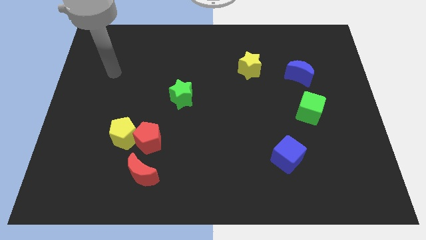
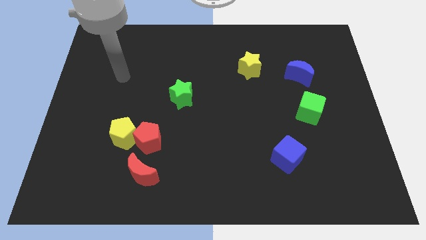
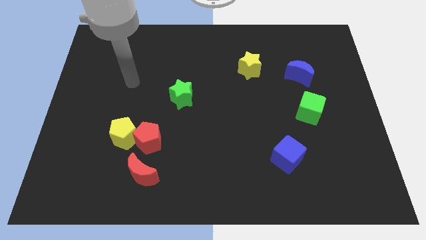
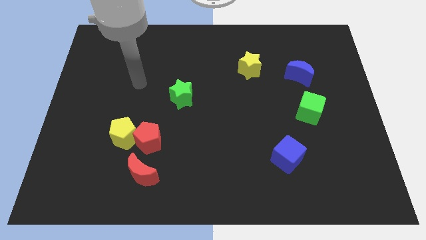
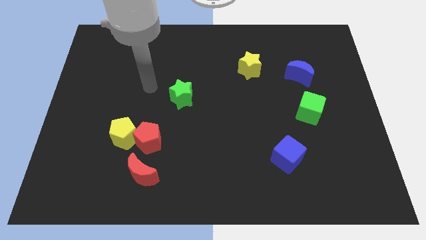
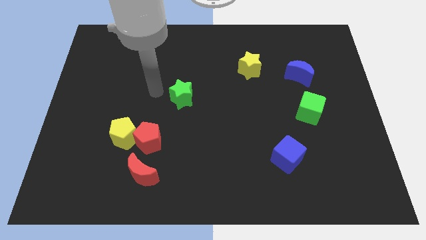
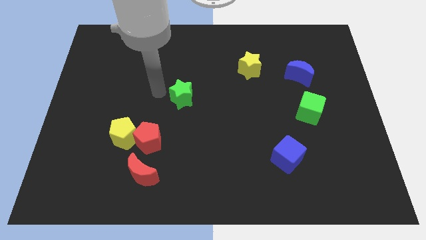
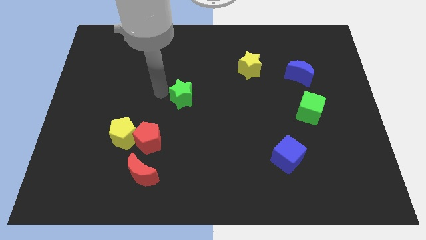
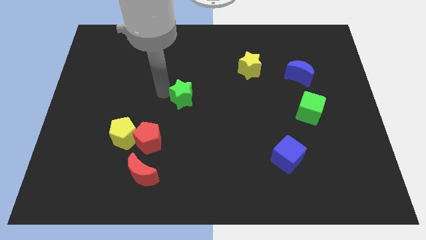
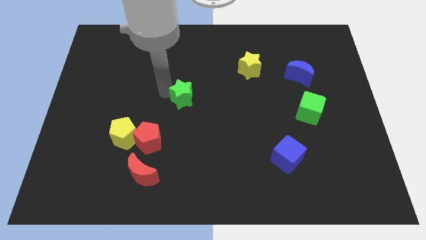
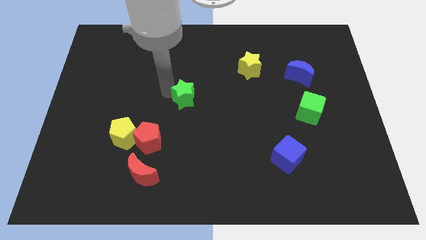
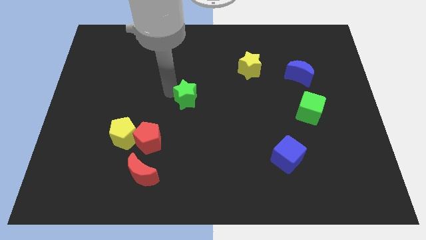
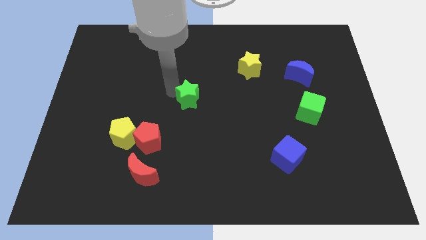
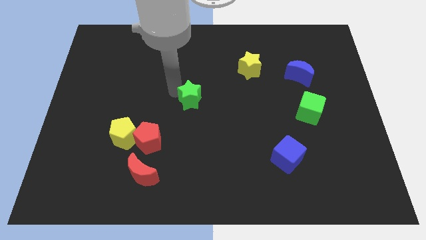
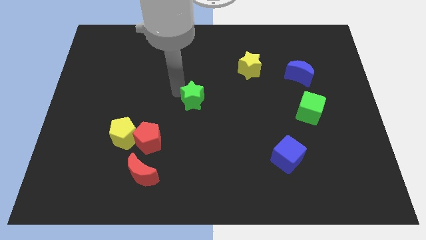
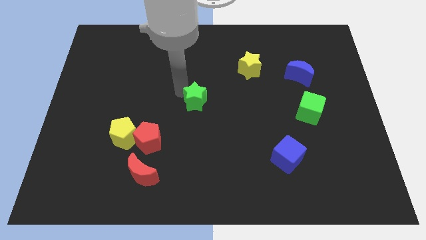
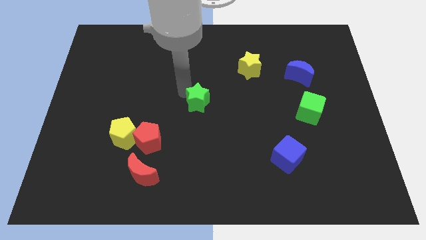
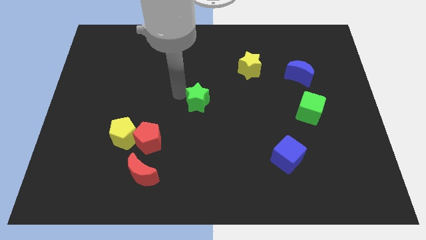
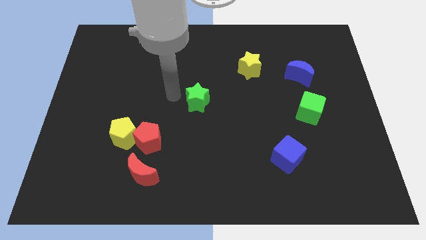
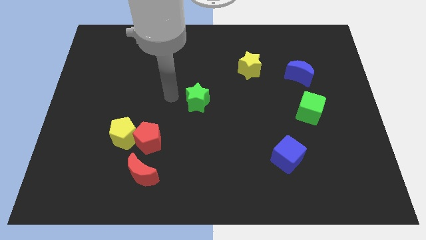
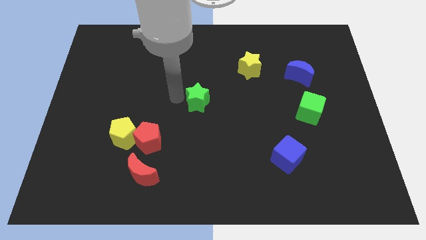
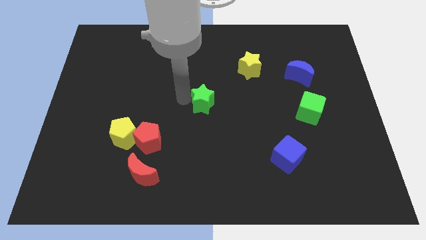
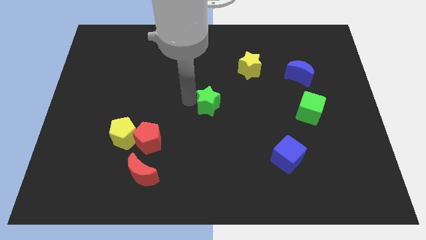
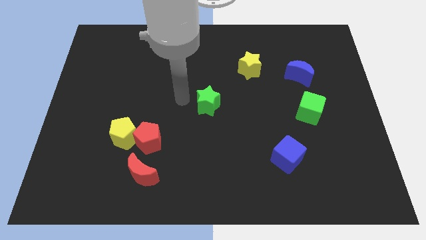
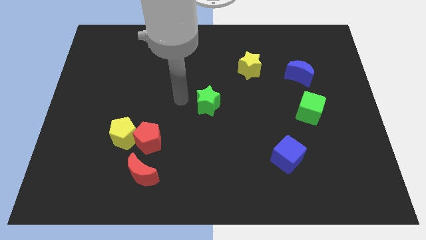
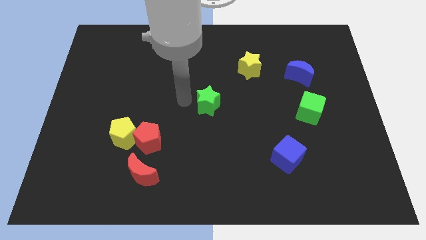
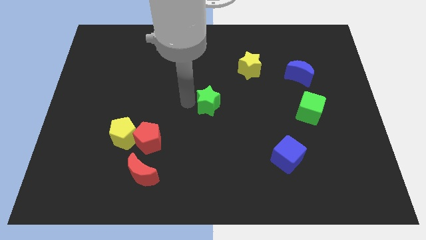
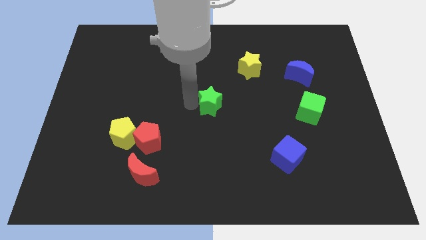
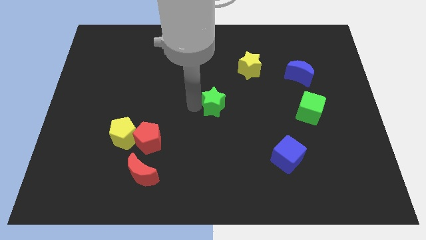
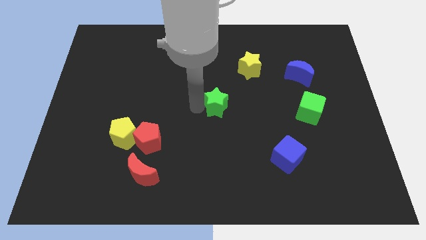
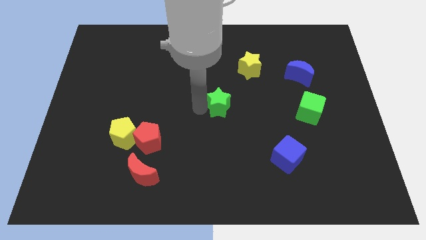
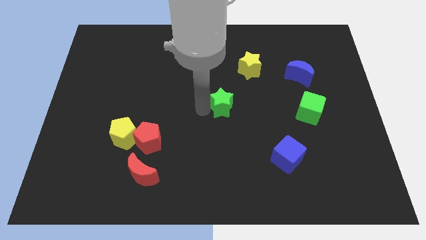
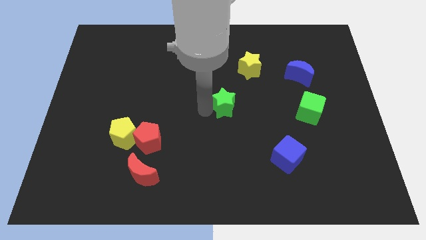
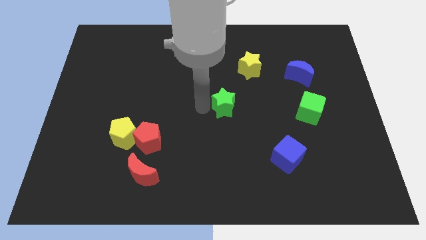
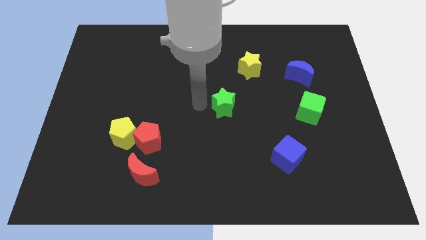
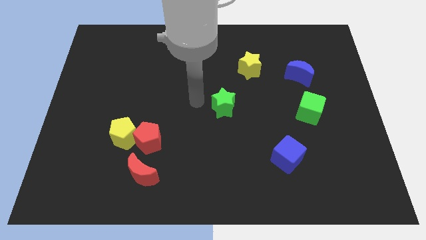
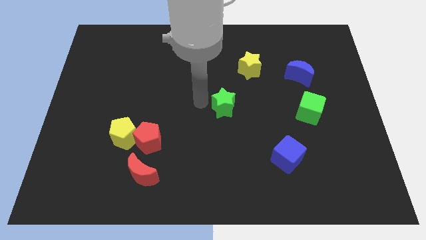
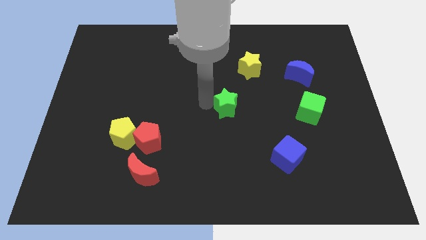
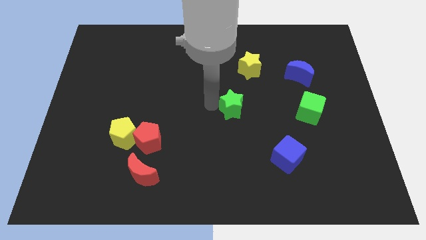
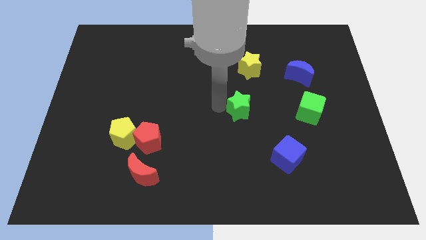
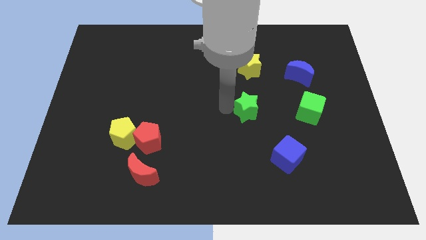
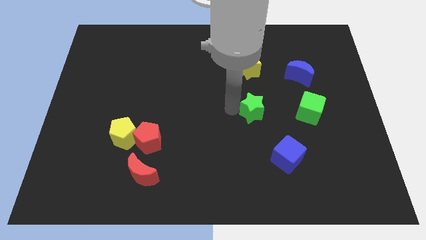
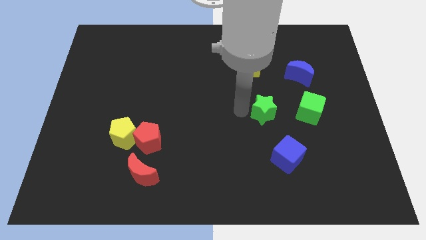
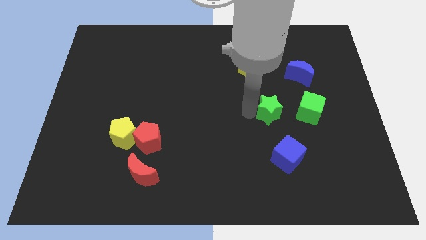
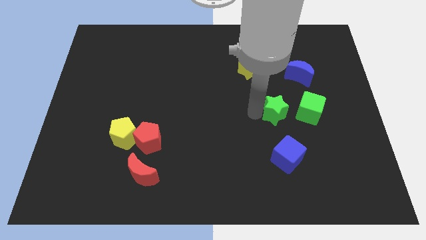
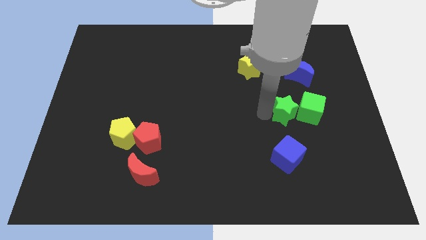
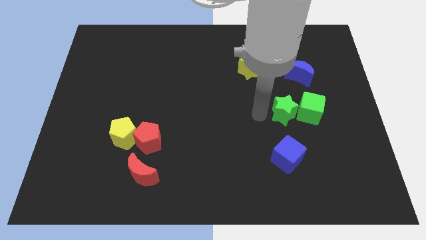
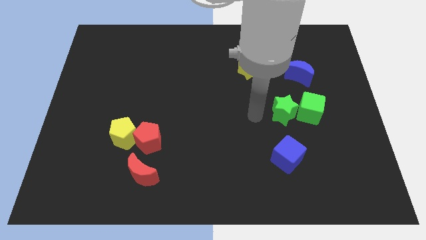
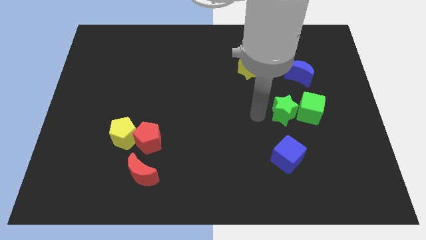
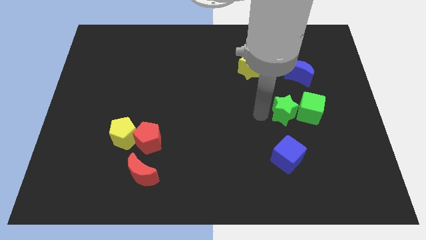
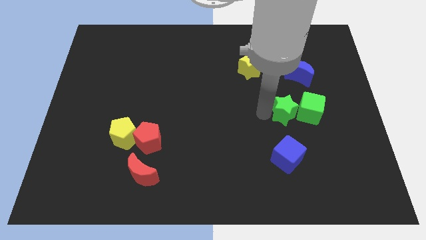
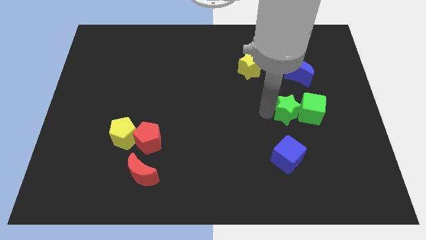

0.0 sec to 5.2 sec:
slide the green star towards the green cube

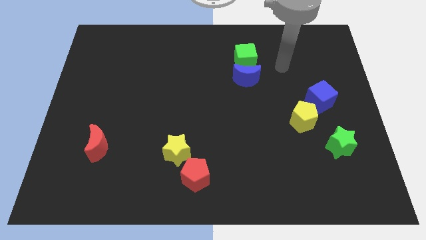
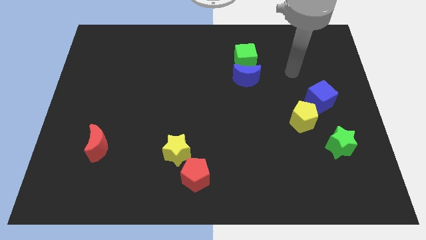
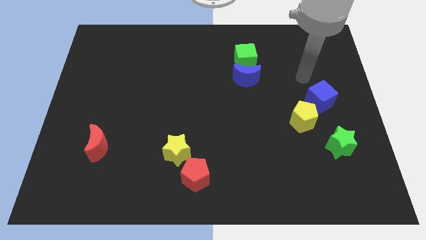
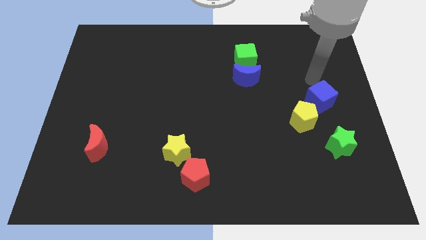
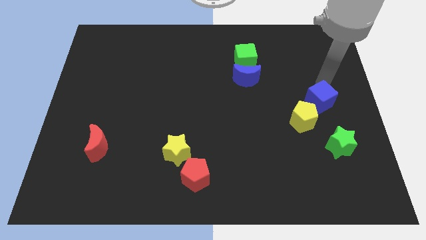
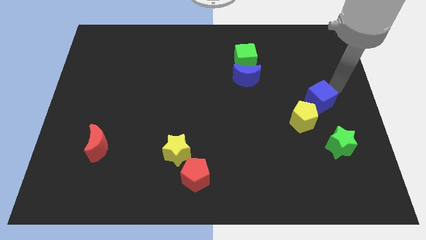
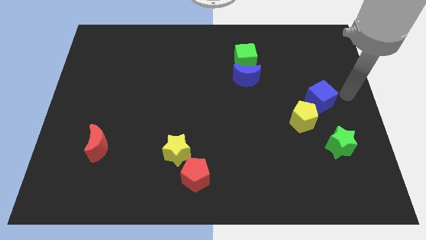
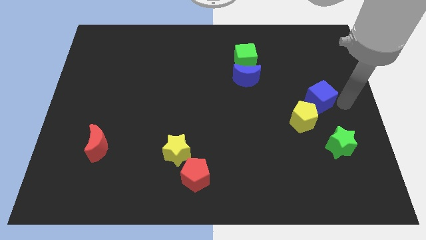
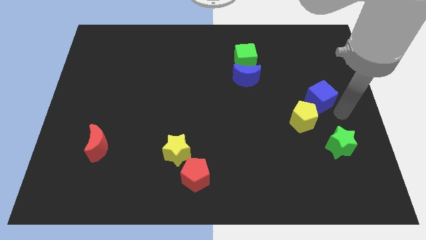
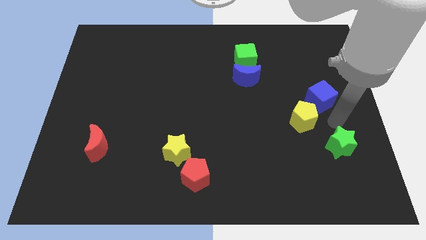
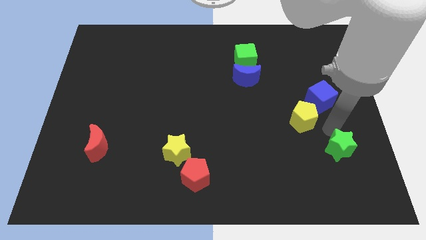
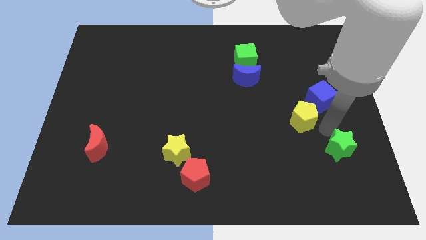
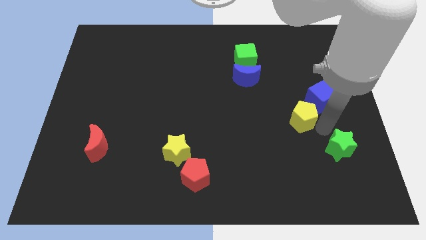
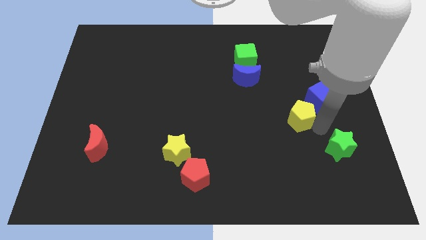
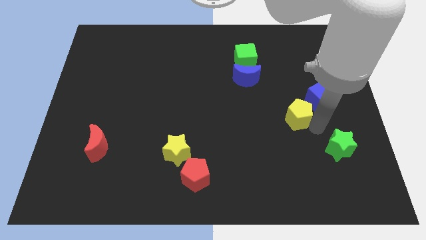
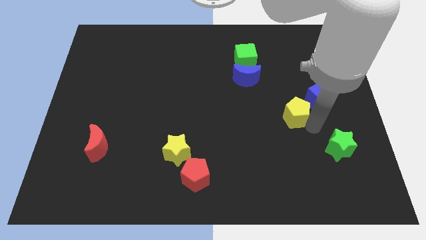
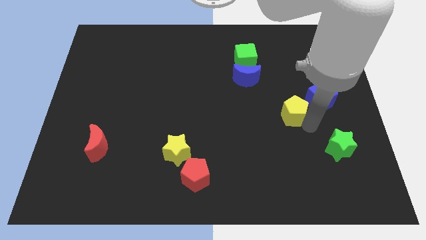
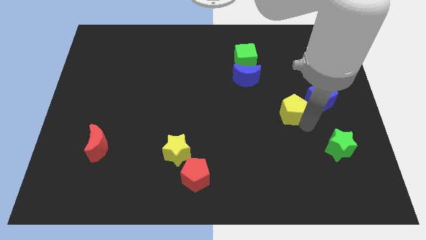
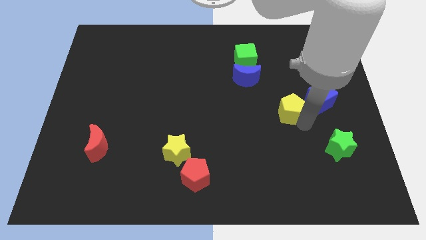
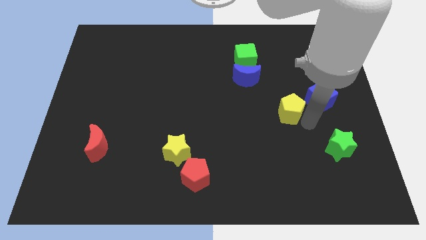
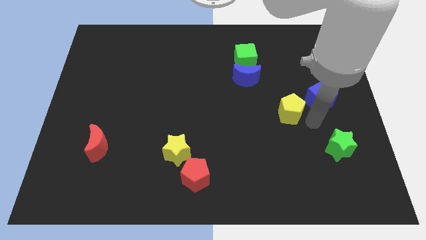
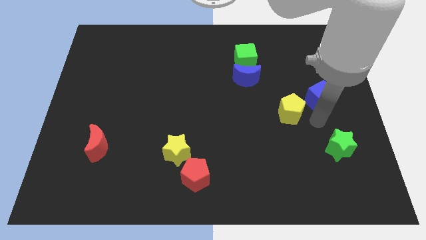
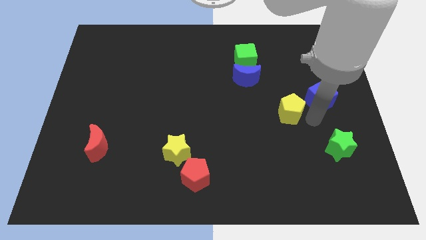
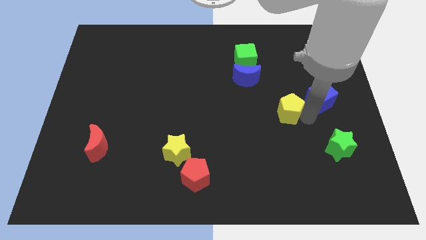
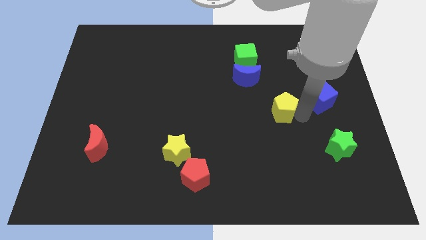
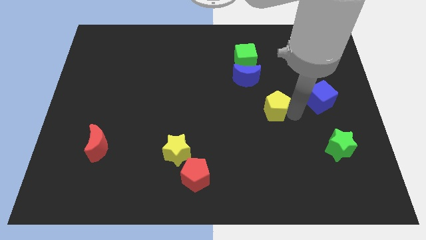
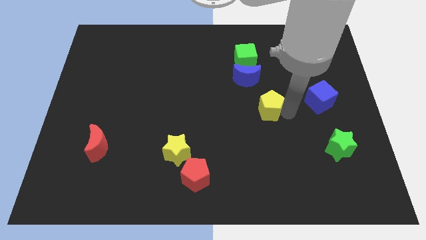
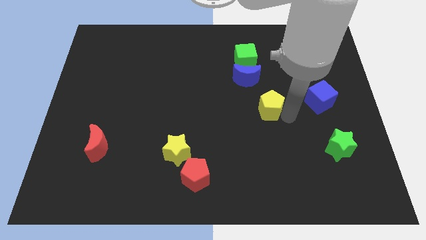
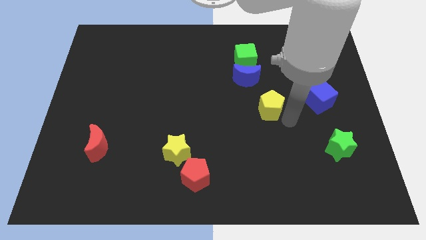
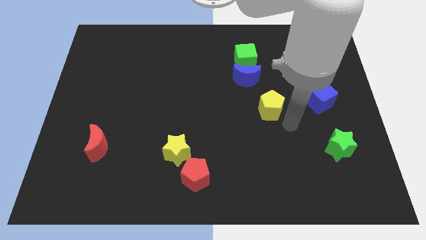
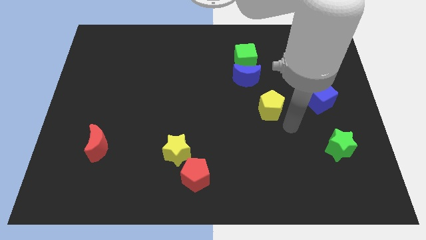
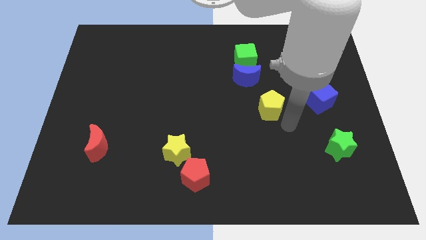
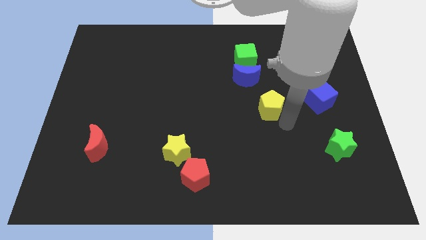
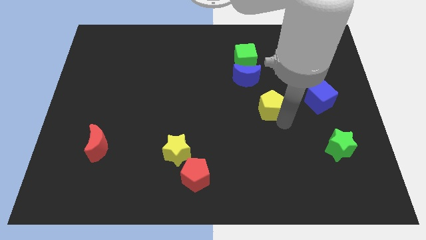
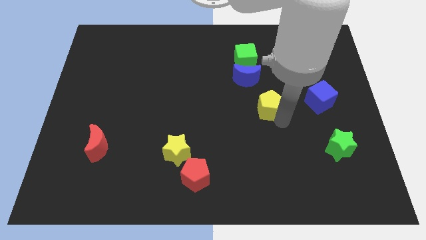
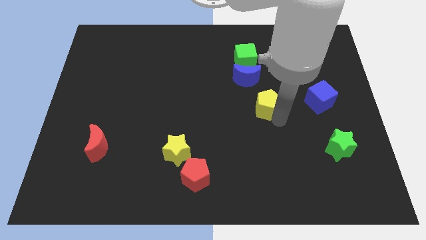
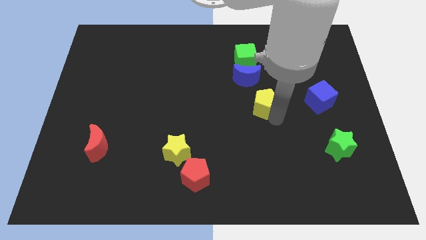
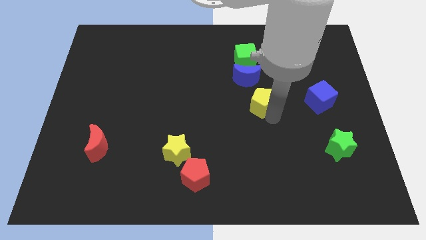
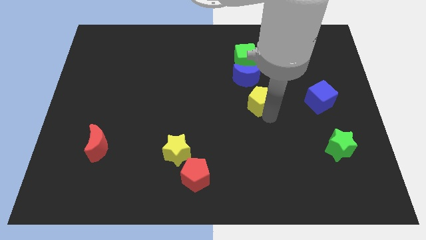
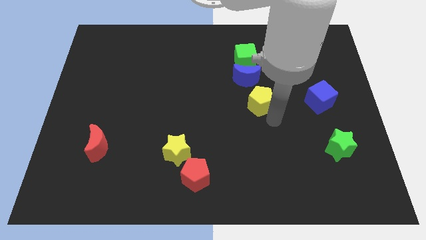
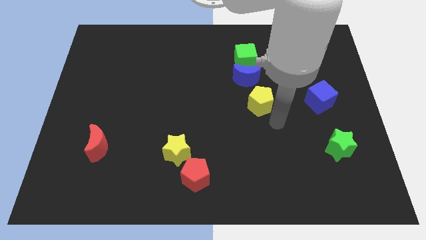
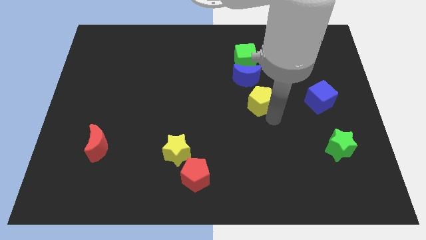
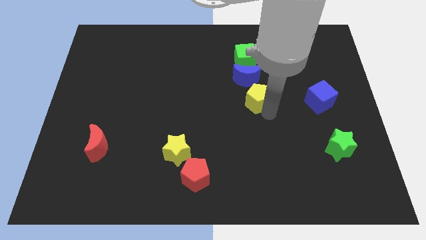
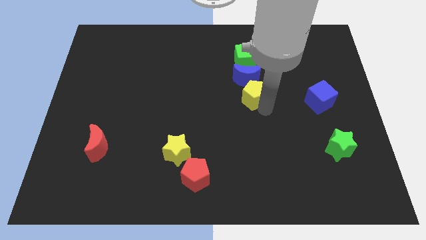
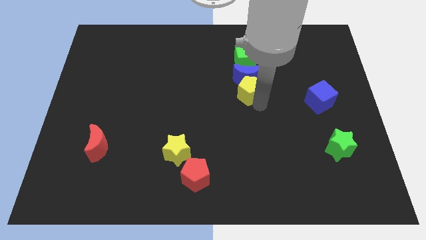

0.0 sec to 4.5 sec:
slide the yellow pentagon to the blue moon
